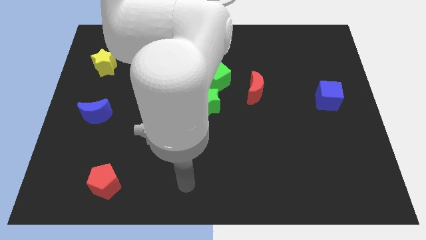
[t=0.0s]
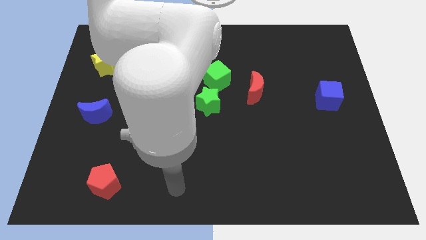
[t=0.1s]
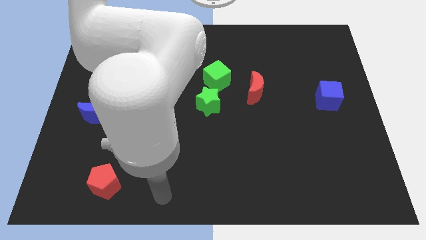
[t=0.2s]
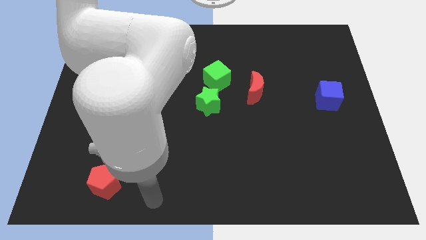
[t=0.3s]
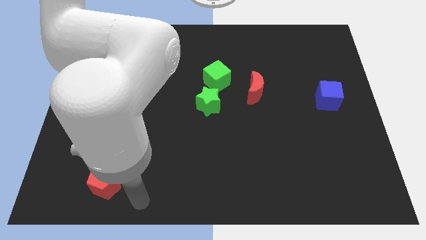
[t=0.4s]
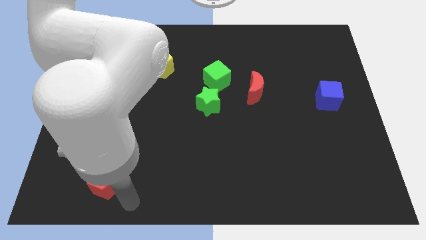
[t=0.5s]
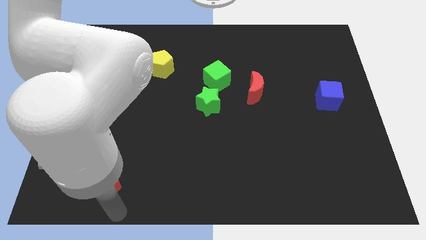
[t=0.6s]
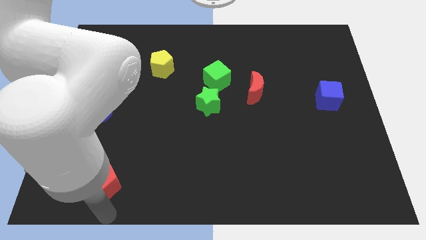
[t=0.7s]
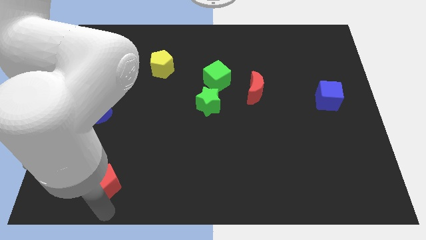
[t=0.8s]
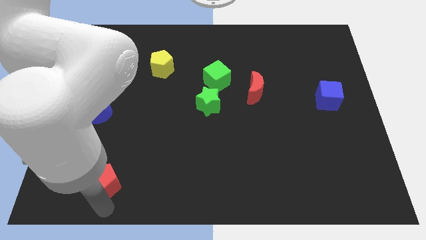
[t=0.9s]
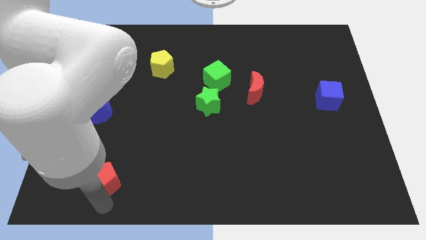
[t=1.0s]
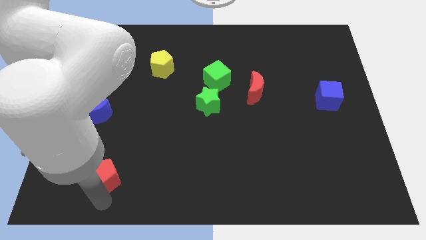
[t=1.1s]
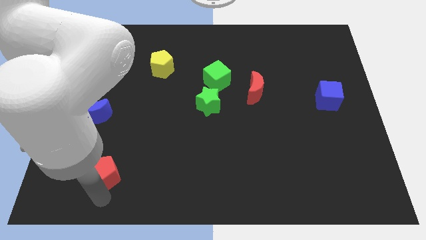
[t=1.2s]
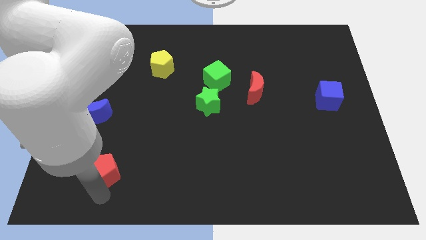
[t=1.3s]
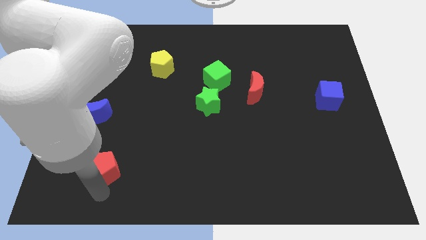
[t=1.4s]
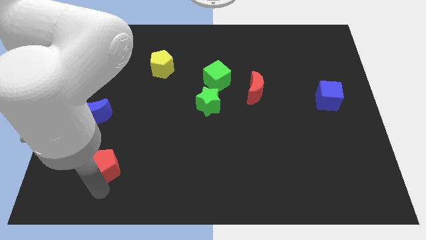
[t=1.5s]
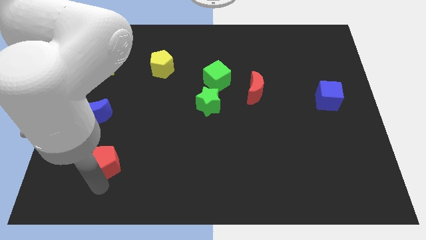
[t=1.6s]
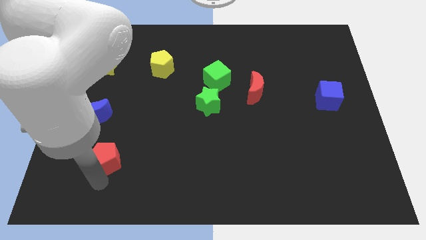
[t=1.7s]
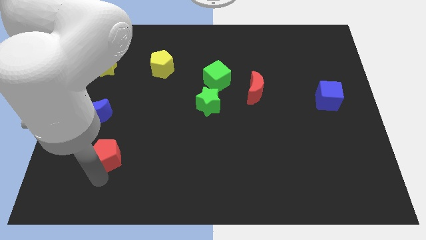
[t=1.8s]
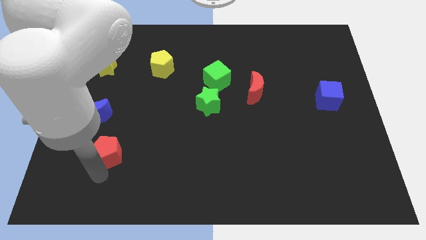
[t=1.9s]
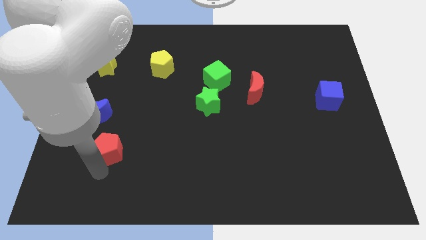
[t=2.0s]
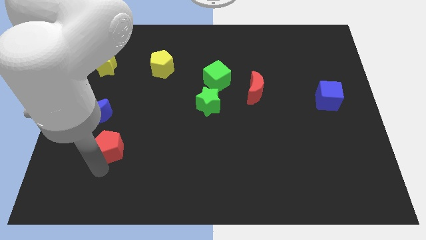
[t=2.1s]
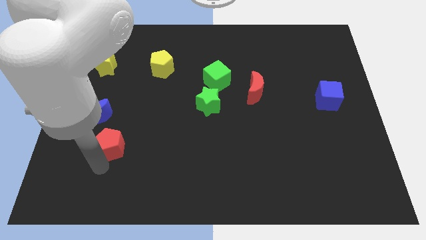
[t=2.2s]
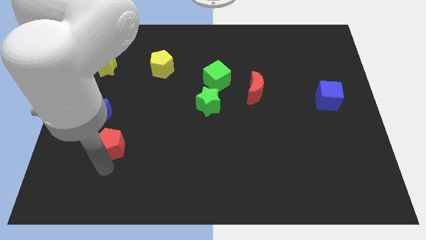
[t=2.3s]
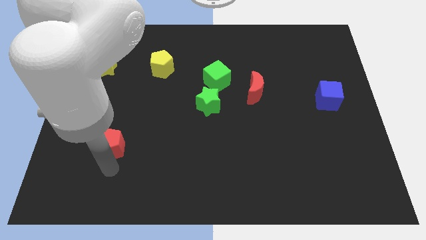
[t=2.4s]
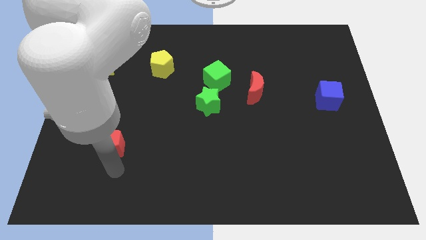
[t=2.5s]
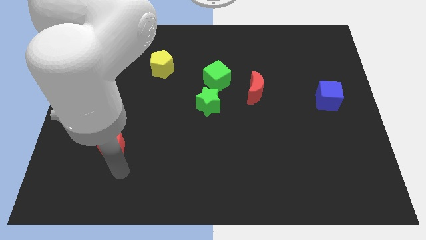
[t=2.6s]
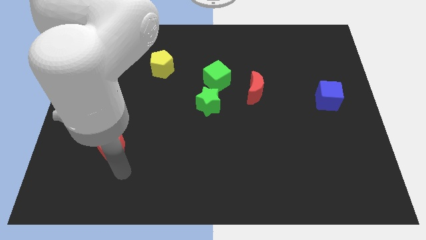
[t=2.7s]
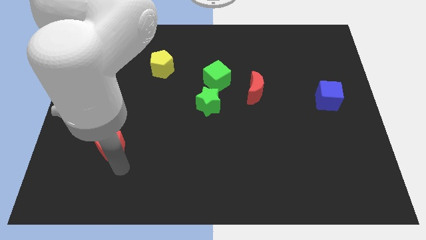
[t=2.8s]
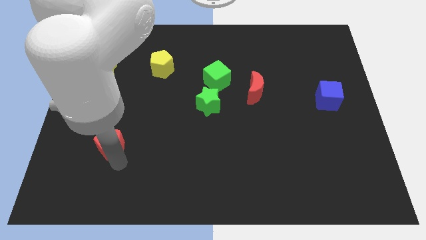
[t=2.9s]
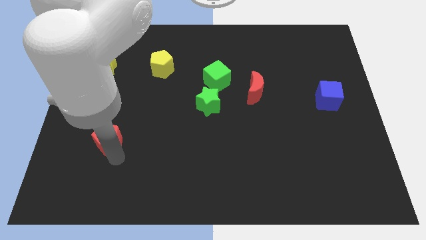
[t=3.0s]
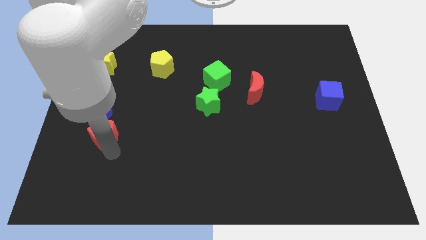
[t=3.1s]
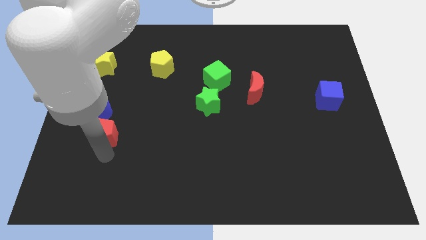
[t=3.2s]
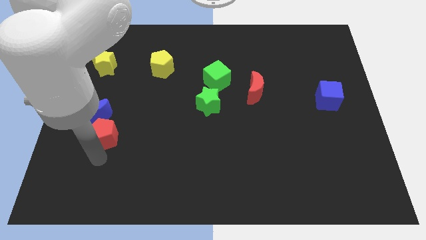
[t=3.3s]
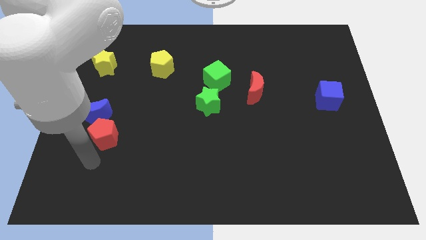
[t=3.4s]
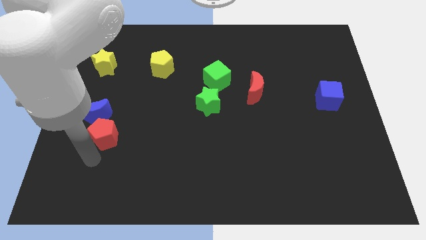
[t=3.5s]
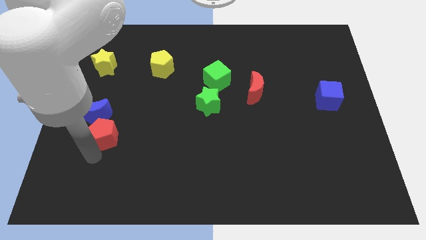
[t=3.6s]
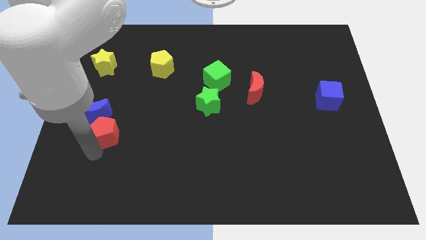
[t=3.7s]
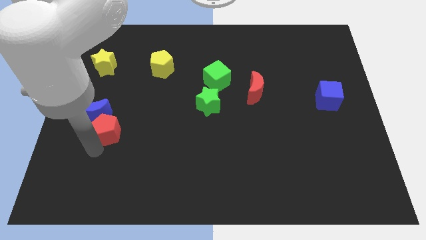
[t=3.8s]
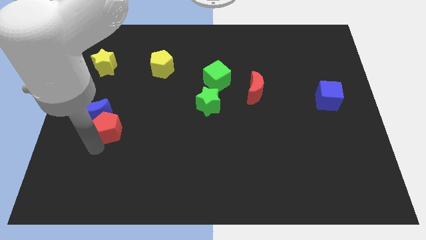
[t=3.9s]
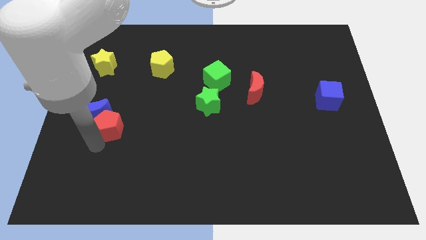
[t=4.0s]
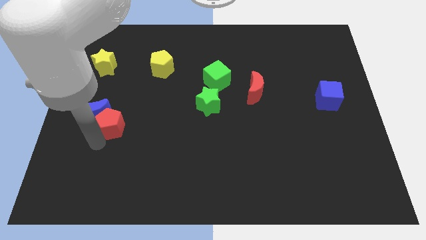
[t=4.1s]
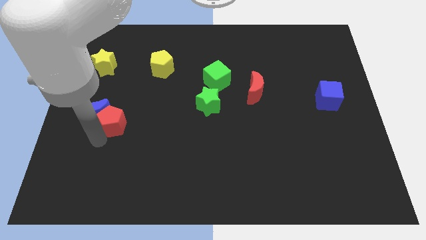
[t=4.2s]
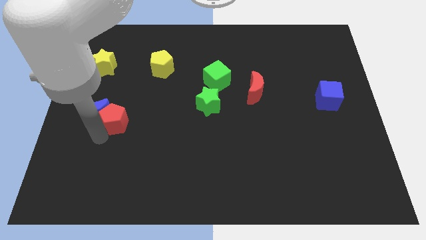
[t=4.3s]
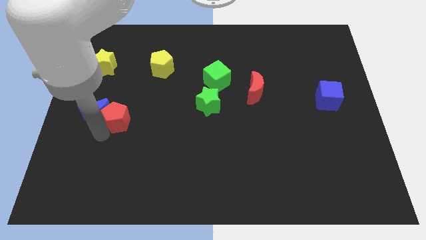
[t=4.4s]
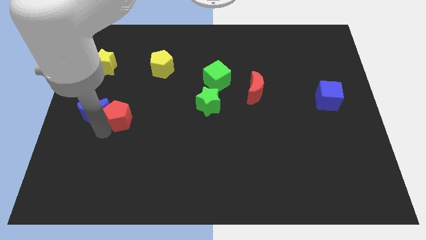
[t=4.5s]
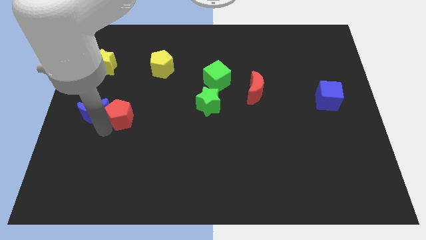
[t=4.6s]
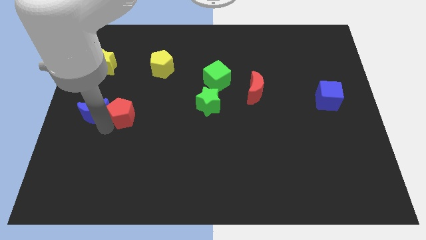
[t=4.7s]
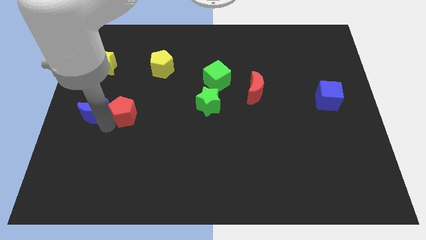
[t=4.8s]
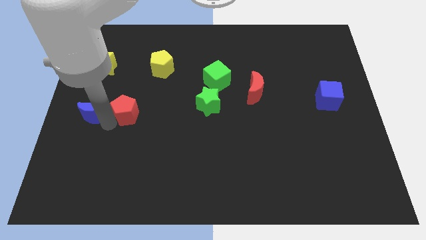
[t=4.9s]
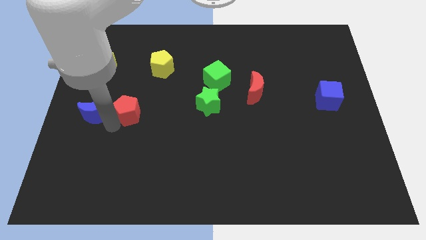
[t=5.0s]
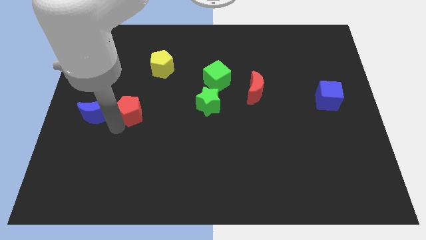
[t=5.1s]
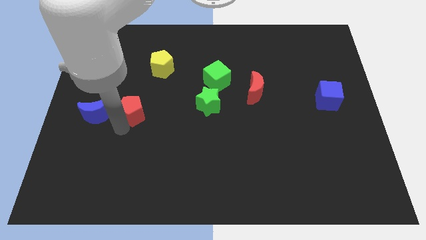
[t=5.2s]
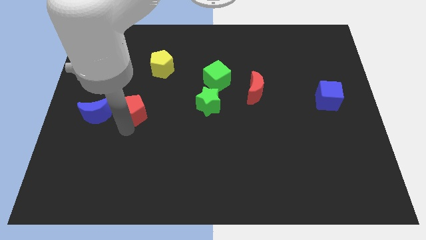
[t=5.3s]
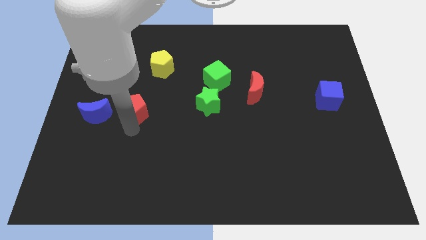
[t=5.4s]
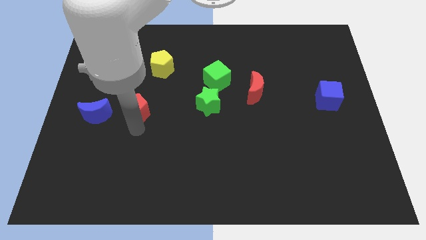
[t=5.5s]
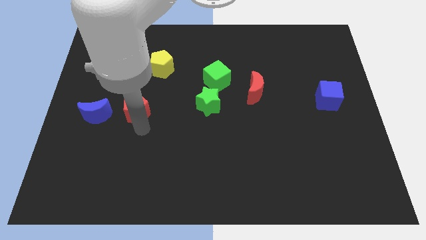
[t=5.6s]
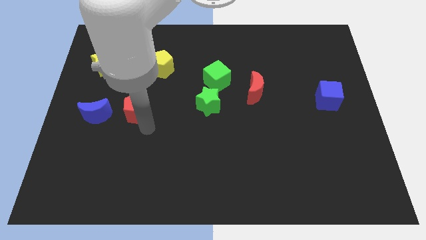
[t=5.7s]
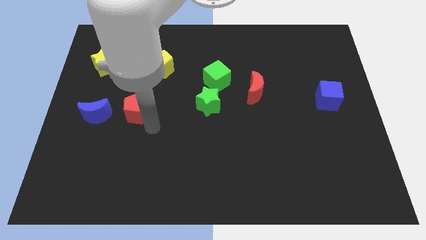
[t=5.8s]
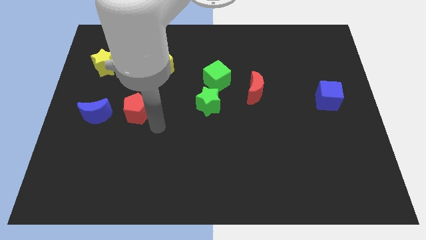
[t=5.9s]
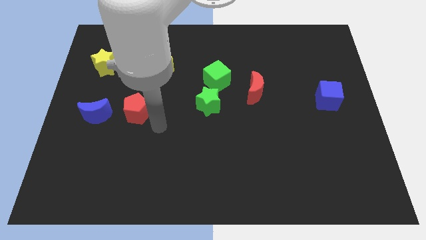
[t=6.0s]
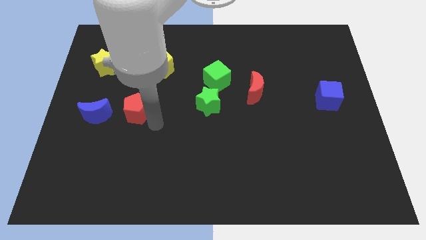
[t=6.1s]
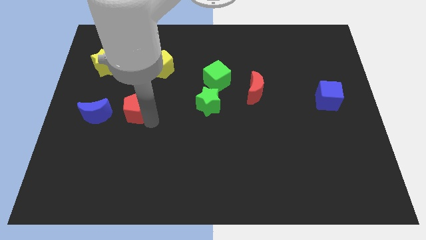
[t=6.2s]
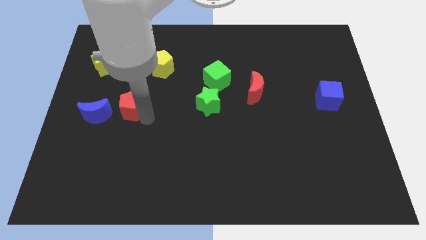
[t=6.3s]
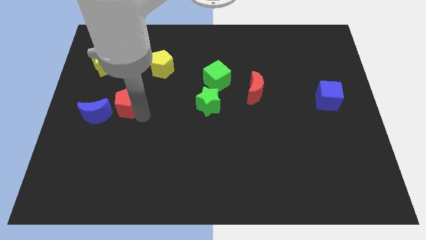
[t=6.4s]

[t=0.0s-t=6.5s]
push the red pentagon up

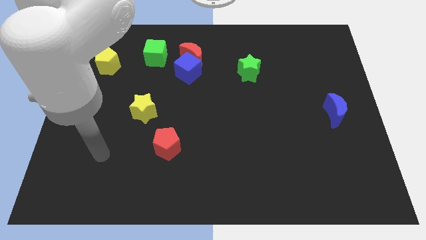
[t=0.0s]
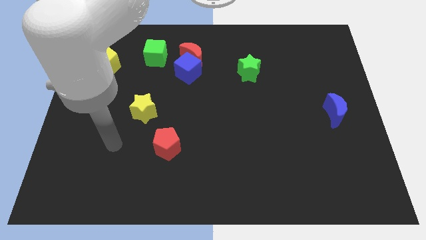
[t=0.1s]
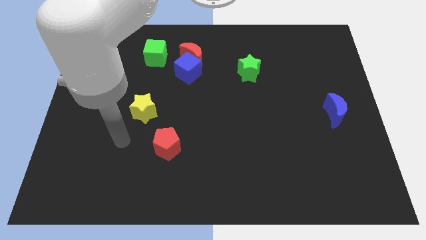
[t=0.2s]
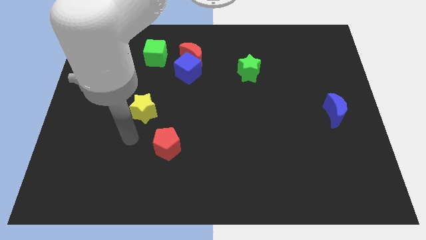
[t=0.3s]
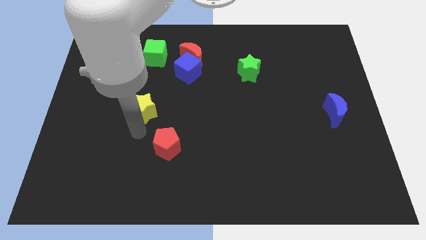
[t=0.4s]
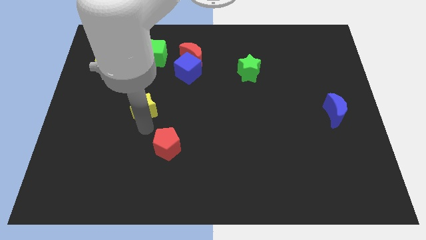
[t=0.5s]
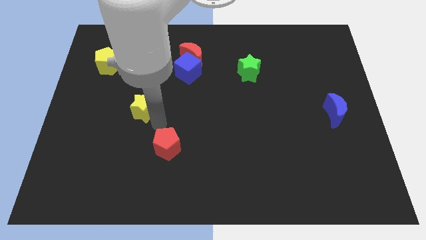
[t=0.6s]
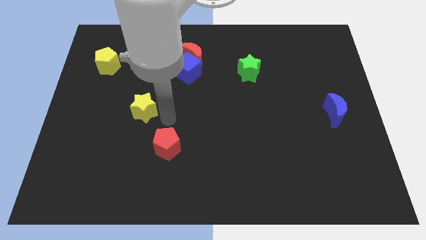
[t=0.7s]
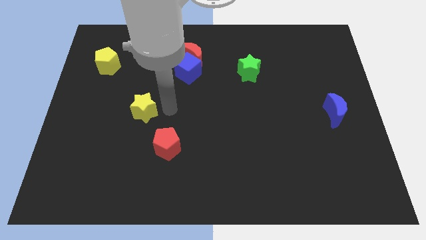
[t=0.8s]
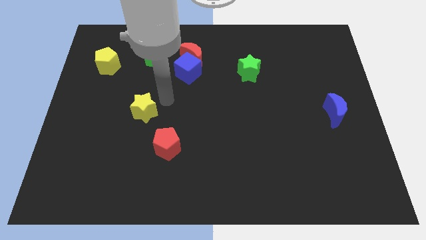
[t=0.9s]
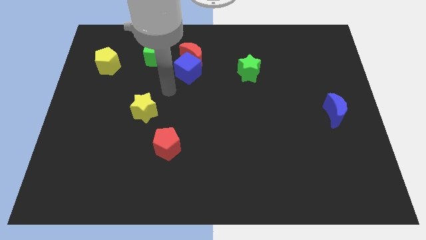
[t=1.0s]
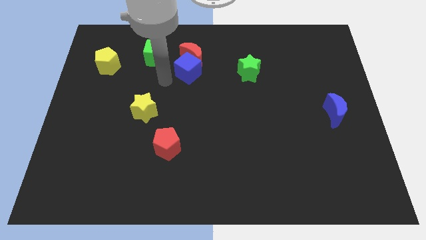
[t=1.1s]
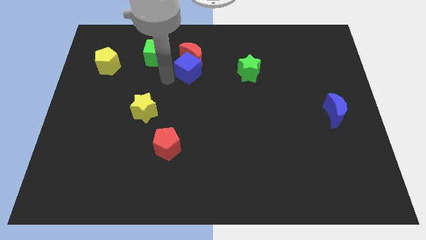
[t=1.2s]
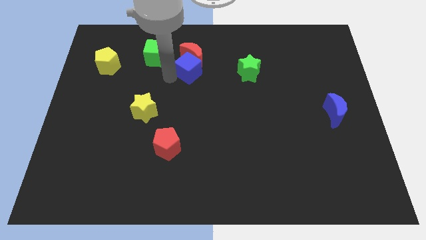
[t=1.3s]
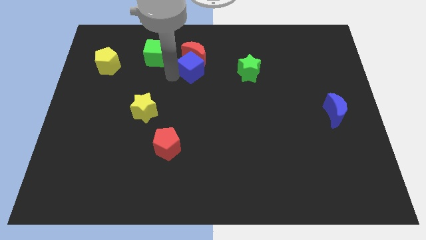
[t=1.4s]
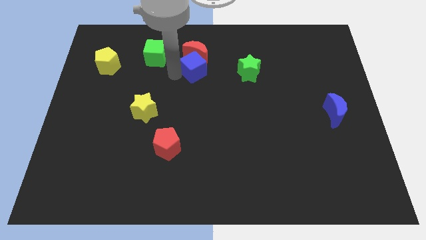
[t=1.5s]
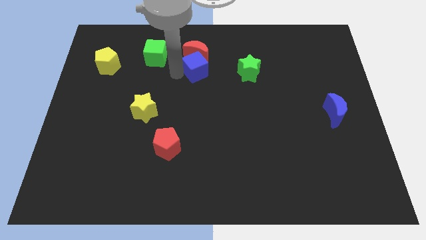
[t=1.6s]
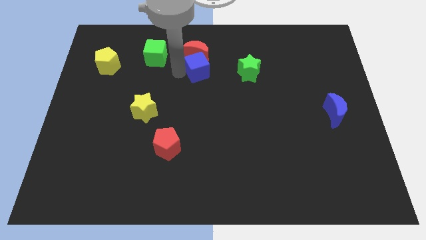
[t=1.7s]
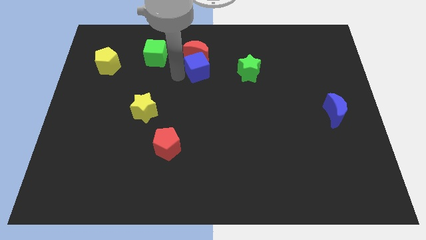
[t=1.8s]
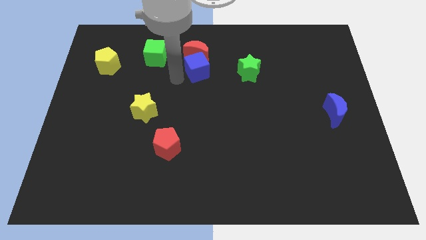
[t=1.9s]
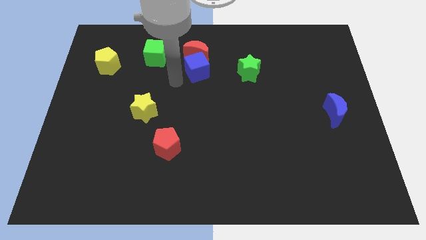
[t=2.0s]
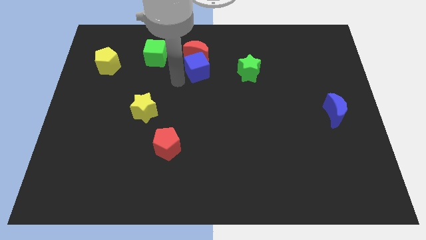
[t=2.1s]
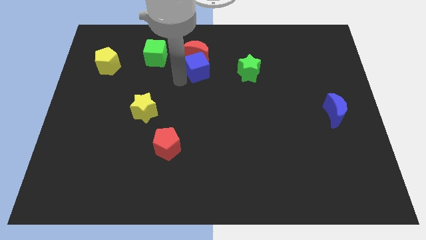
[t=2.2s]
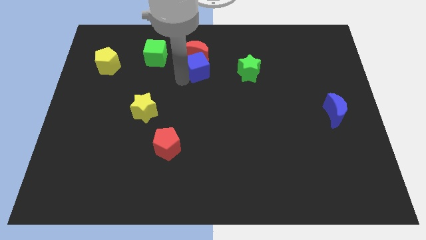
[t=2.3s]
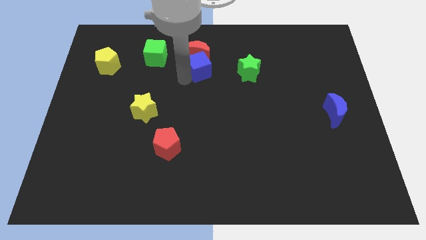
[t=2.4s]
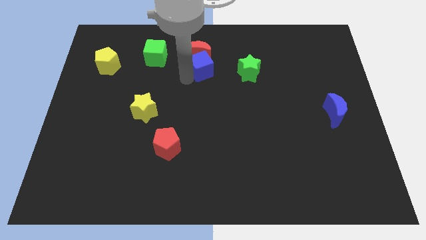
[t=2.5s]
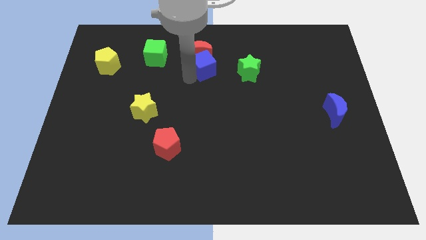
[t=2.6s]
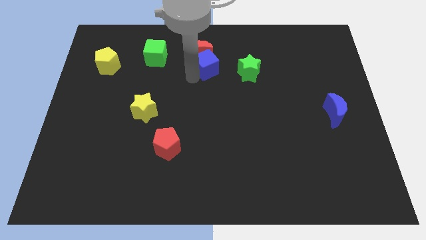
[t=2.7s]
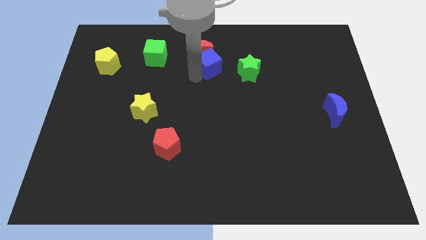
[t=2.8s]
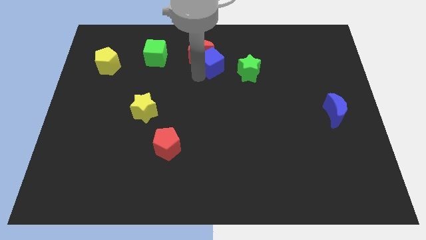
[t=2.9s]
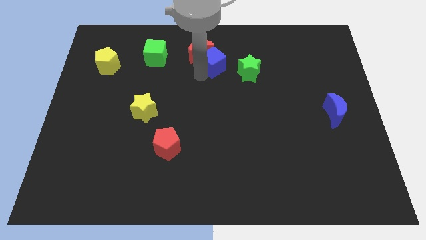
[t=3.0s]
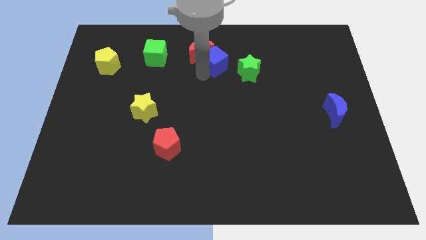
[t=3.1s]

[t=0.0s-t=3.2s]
push the blue cube somewhat to the right
